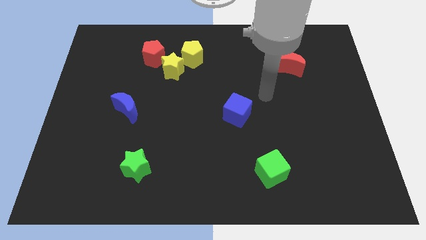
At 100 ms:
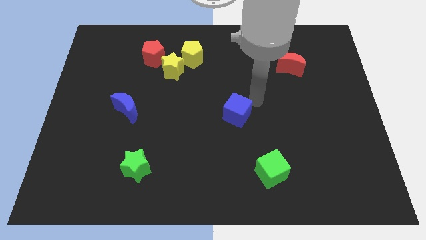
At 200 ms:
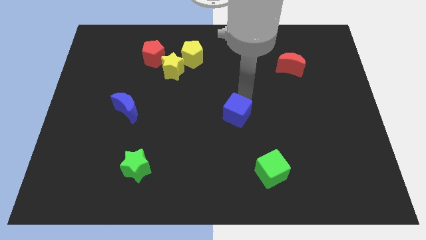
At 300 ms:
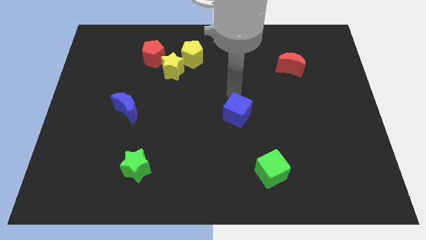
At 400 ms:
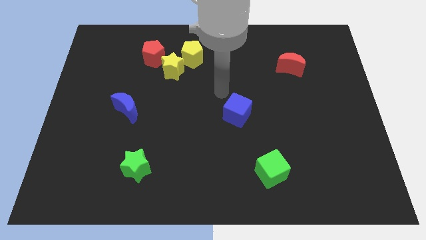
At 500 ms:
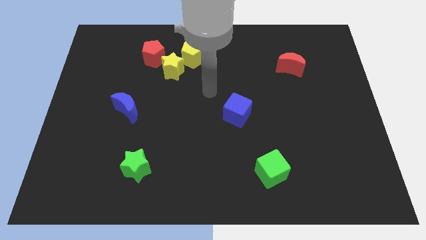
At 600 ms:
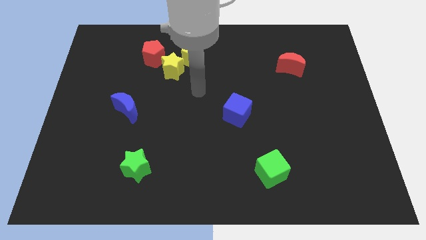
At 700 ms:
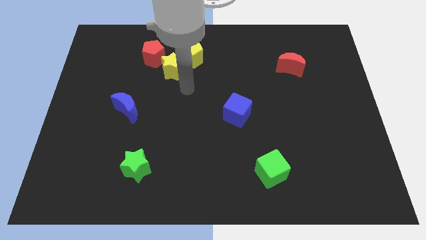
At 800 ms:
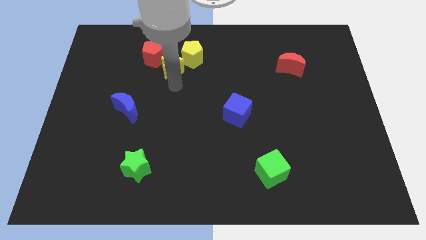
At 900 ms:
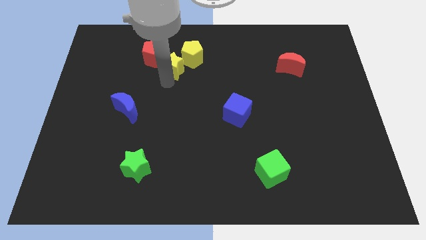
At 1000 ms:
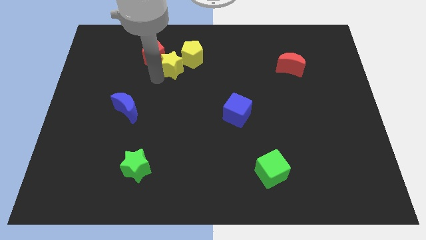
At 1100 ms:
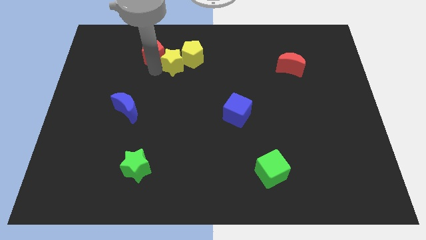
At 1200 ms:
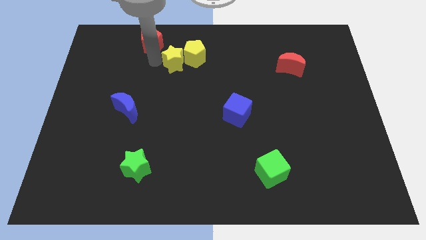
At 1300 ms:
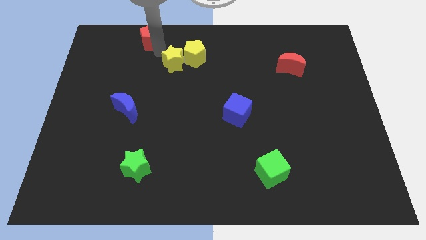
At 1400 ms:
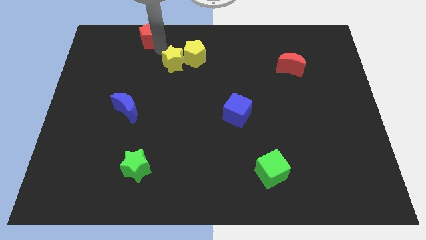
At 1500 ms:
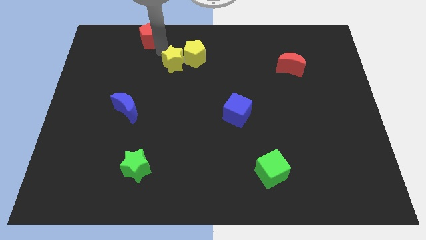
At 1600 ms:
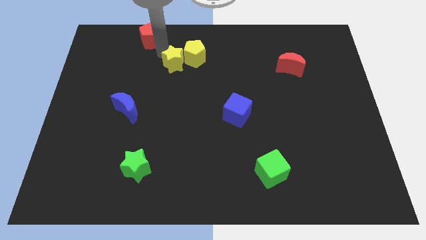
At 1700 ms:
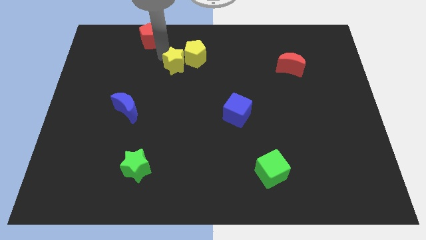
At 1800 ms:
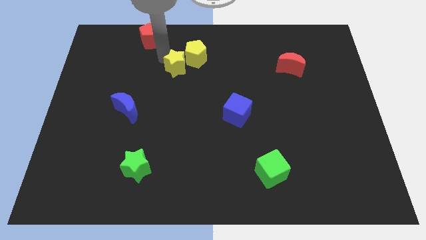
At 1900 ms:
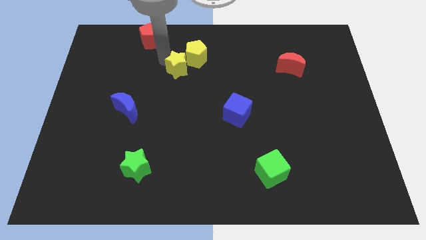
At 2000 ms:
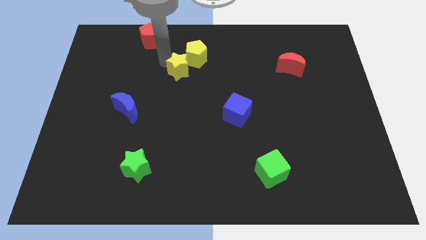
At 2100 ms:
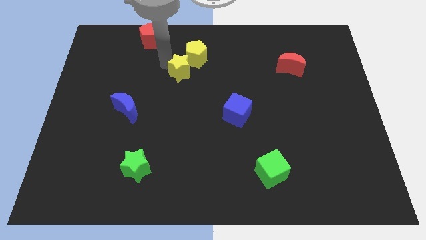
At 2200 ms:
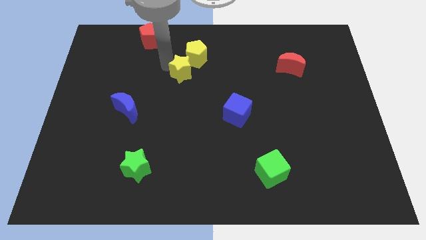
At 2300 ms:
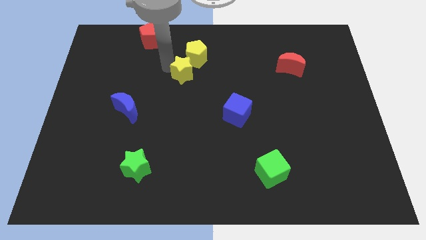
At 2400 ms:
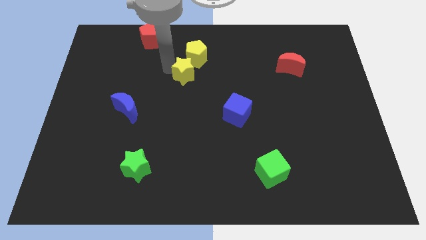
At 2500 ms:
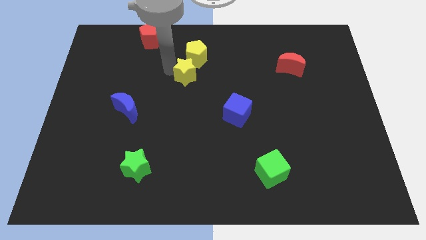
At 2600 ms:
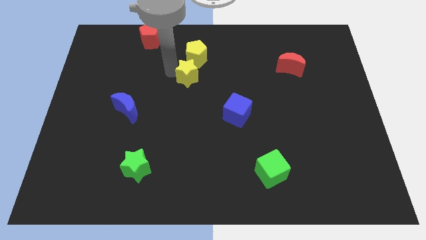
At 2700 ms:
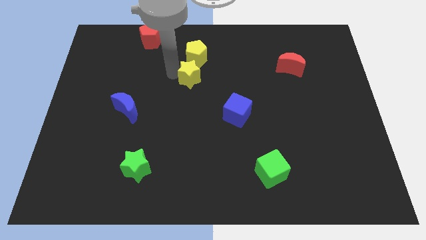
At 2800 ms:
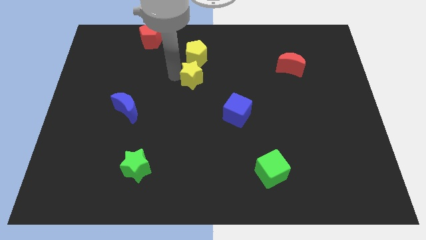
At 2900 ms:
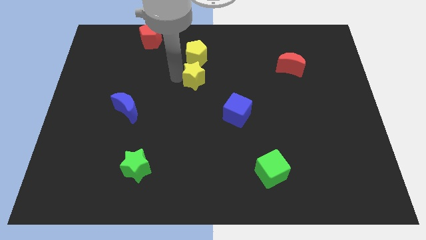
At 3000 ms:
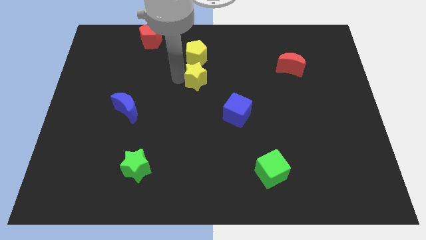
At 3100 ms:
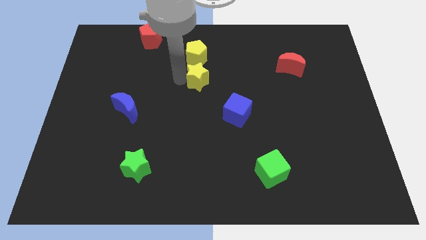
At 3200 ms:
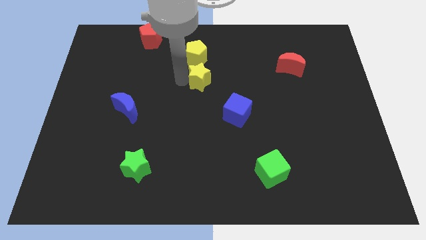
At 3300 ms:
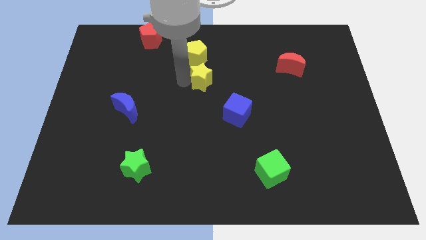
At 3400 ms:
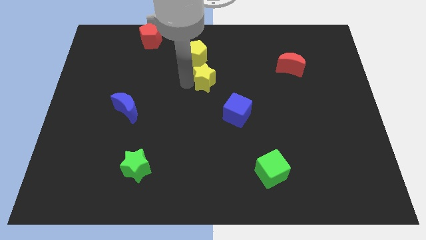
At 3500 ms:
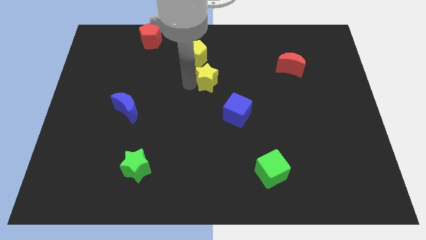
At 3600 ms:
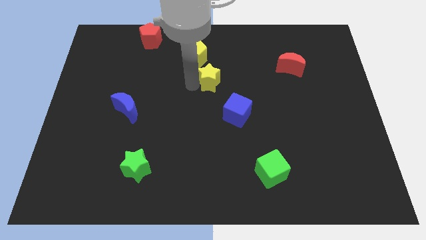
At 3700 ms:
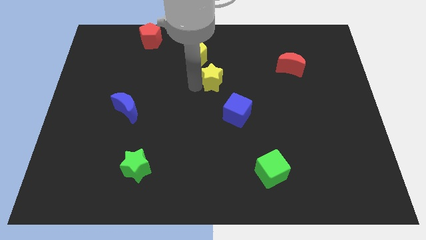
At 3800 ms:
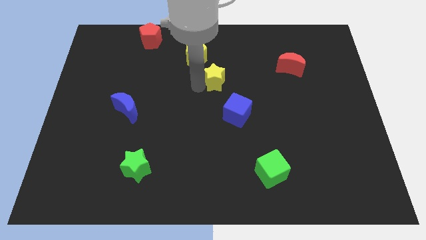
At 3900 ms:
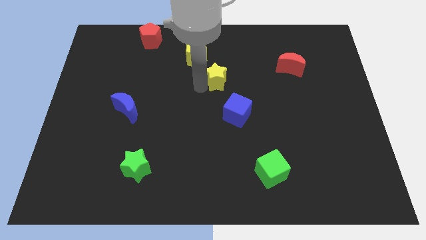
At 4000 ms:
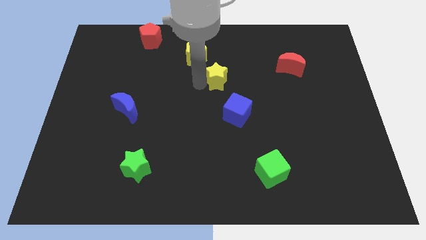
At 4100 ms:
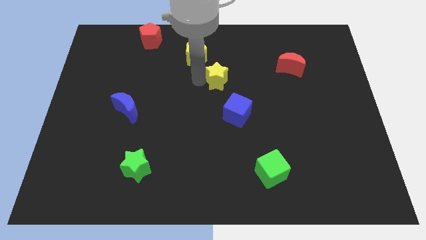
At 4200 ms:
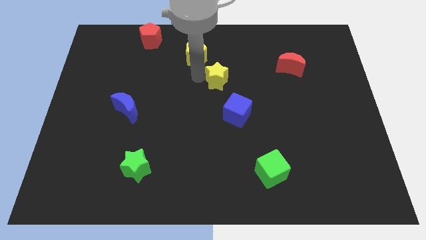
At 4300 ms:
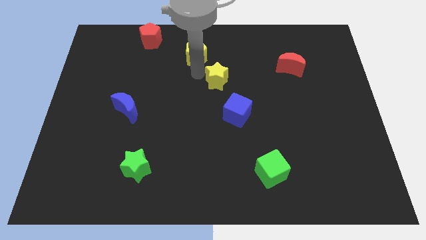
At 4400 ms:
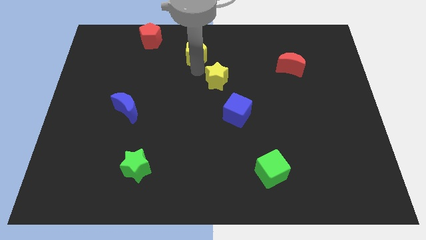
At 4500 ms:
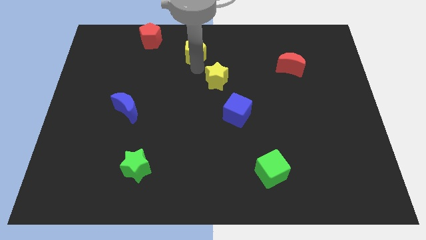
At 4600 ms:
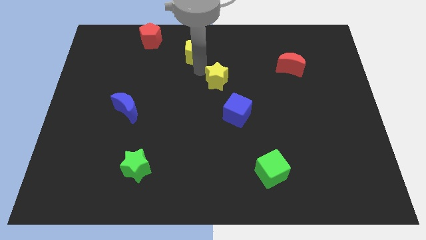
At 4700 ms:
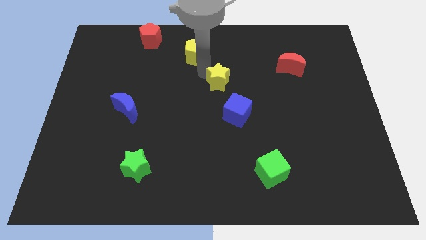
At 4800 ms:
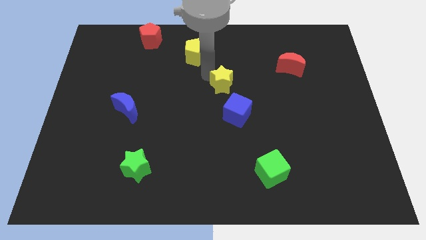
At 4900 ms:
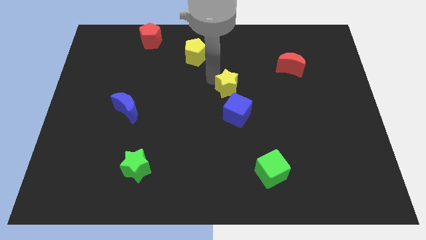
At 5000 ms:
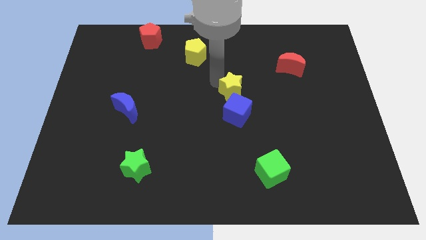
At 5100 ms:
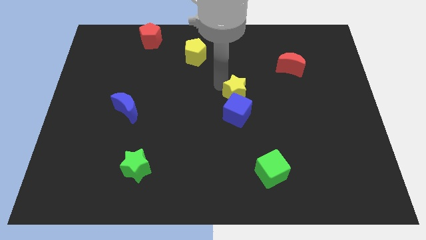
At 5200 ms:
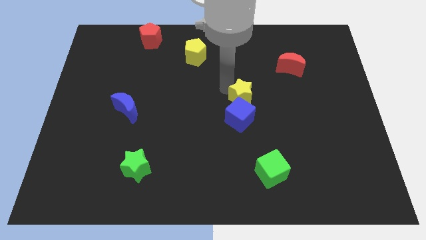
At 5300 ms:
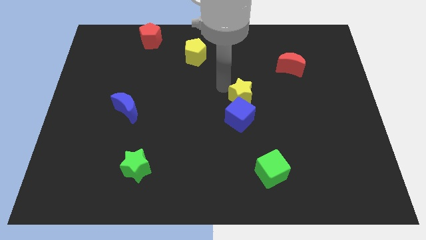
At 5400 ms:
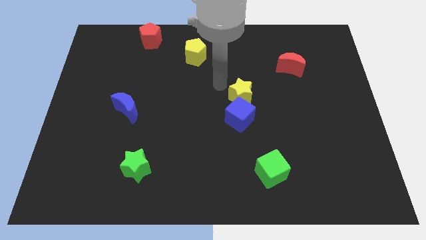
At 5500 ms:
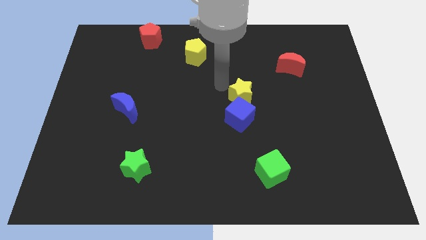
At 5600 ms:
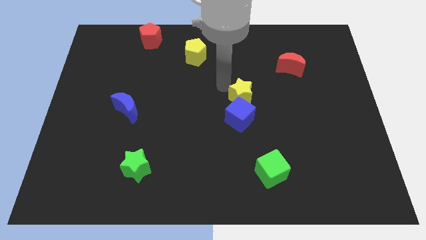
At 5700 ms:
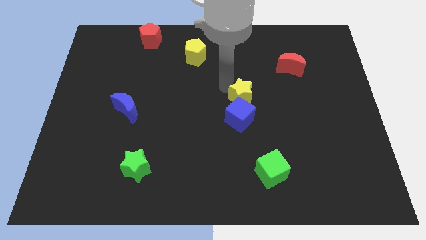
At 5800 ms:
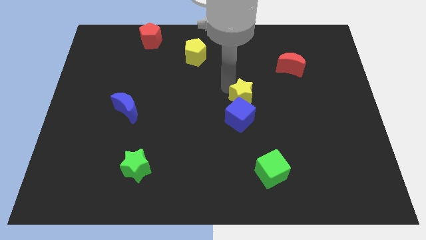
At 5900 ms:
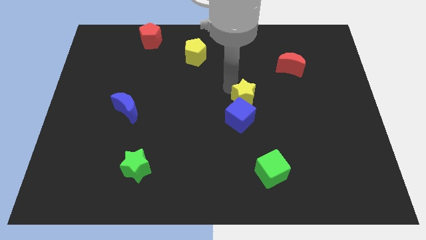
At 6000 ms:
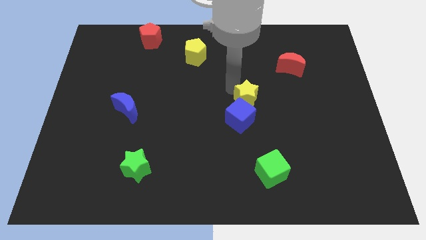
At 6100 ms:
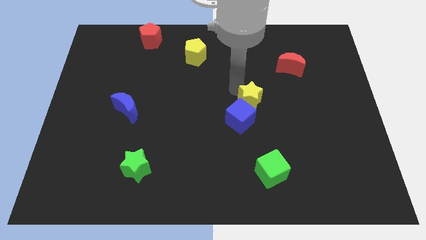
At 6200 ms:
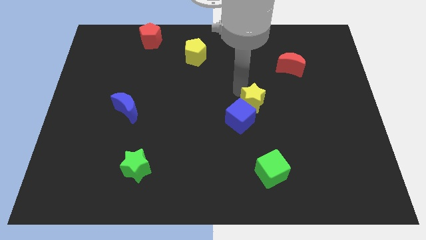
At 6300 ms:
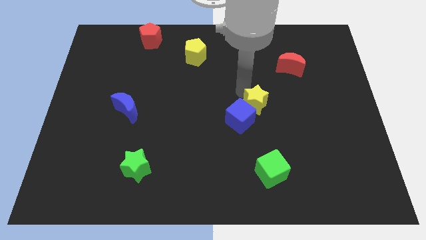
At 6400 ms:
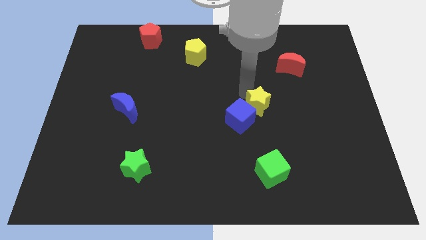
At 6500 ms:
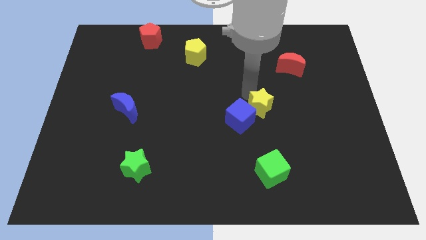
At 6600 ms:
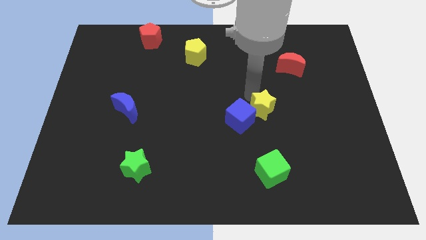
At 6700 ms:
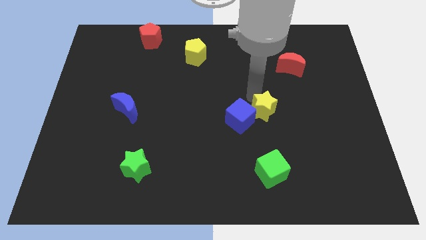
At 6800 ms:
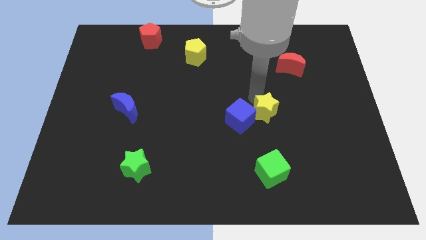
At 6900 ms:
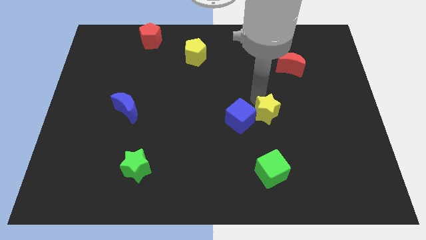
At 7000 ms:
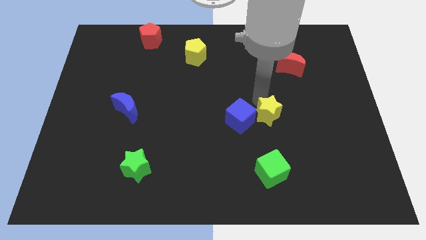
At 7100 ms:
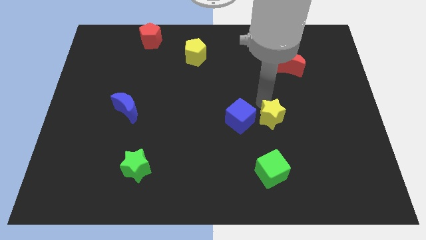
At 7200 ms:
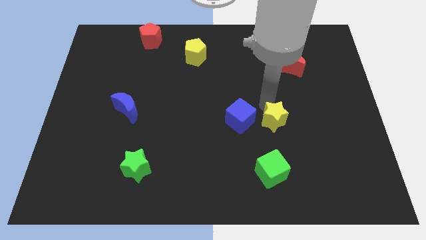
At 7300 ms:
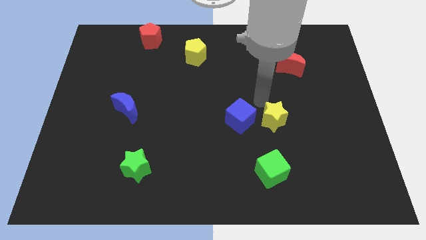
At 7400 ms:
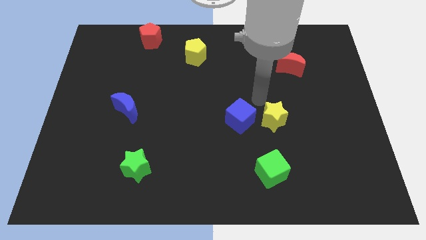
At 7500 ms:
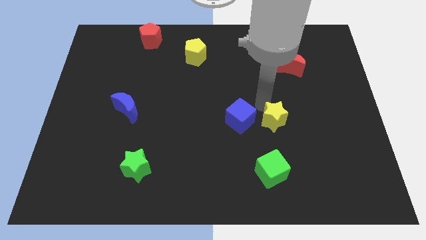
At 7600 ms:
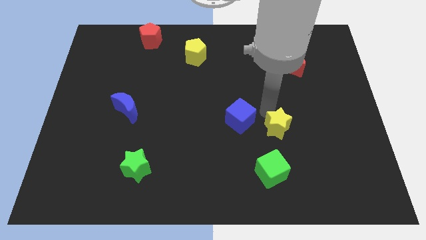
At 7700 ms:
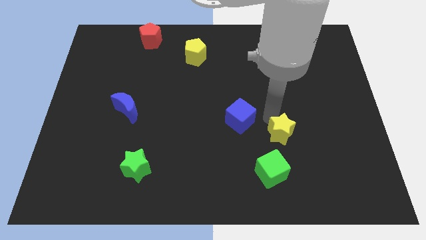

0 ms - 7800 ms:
put the yellow star to the top right side of the green cube
